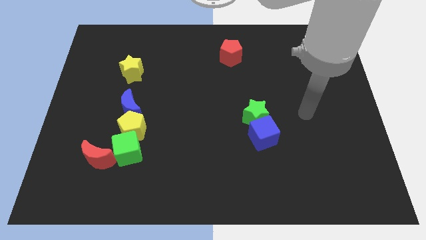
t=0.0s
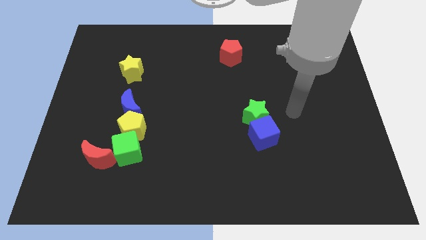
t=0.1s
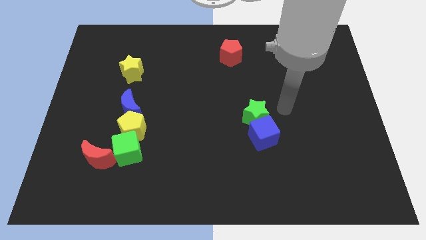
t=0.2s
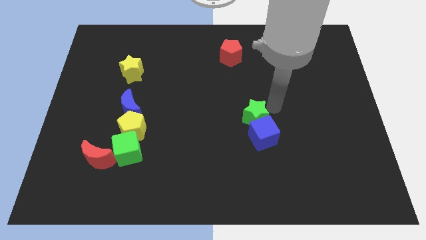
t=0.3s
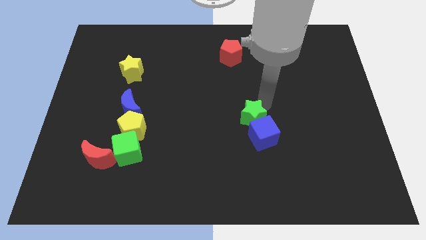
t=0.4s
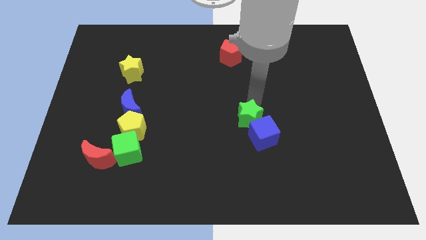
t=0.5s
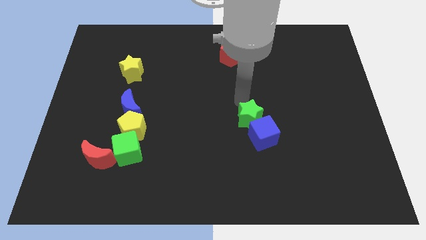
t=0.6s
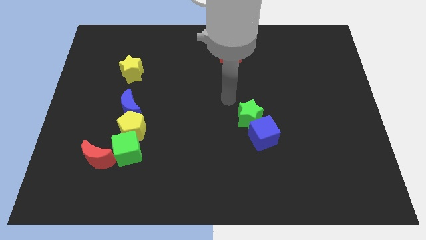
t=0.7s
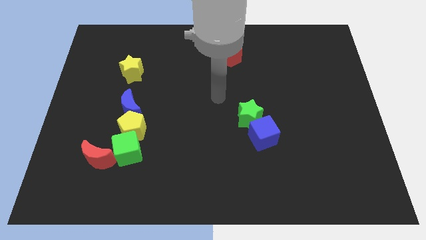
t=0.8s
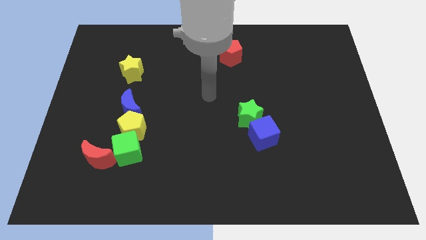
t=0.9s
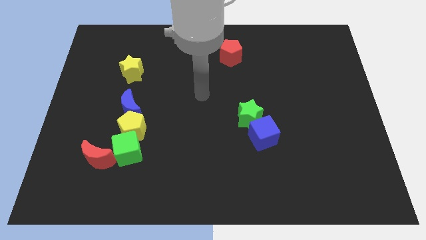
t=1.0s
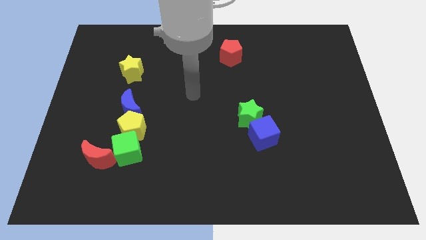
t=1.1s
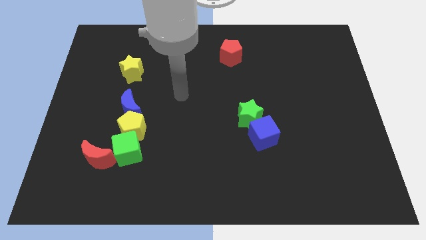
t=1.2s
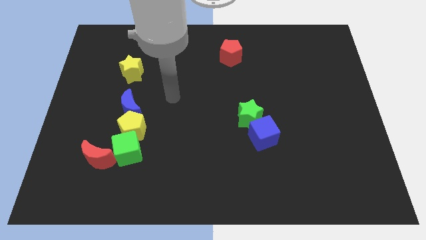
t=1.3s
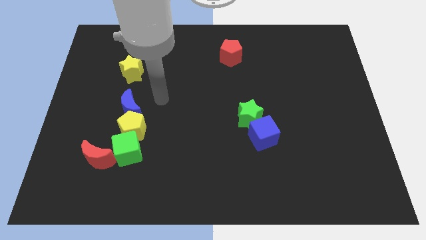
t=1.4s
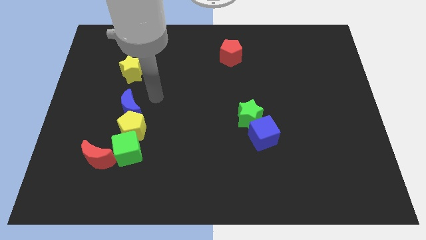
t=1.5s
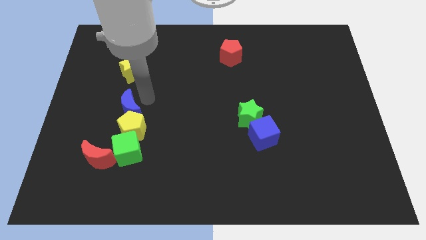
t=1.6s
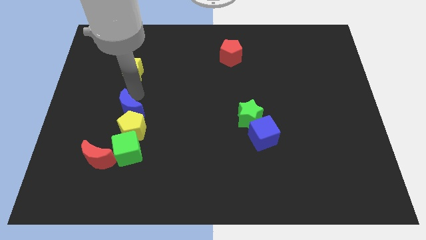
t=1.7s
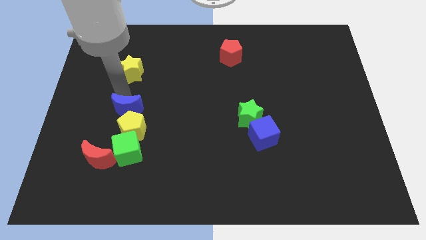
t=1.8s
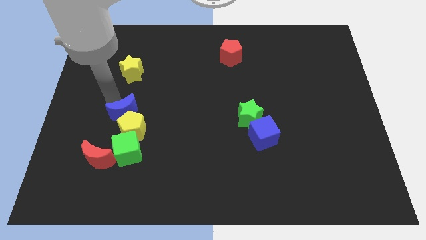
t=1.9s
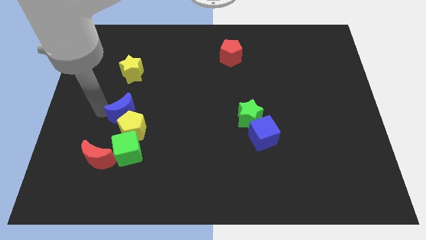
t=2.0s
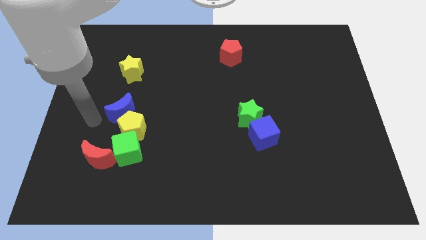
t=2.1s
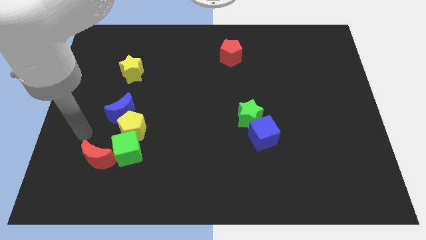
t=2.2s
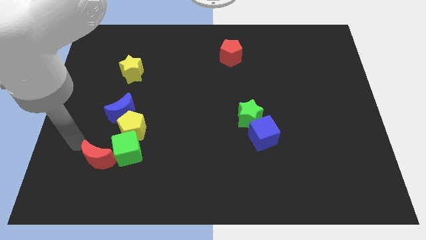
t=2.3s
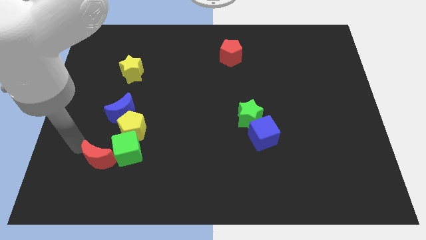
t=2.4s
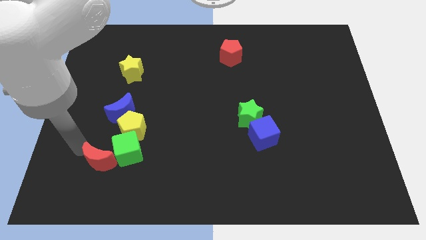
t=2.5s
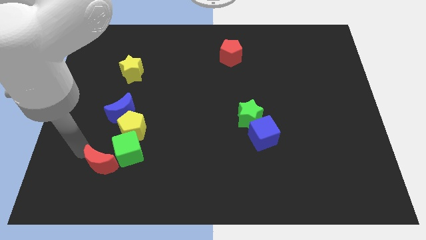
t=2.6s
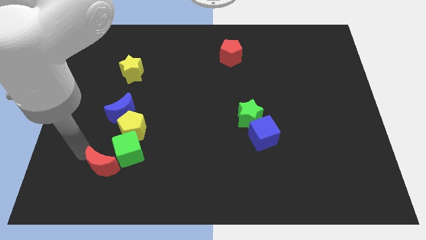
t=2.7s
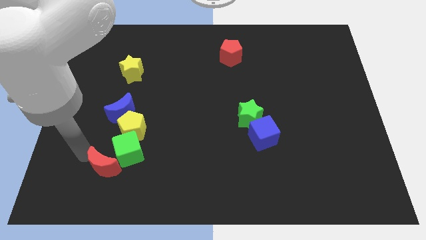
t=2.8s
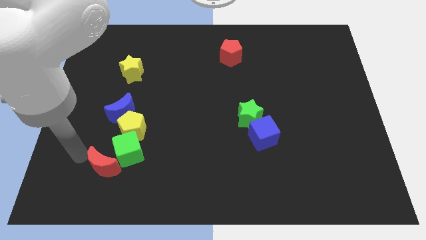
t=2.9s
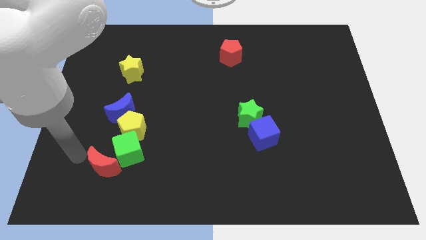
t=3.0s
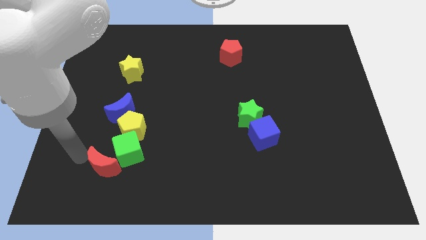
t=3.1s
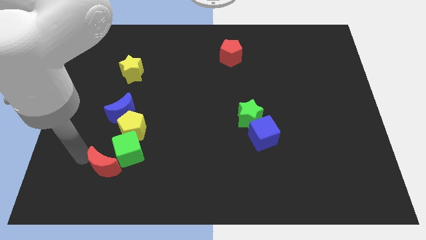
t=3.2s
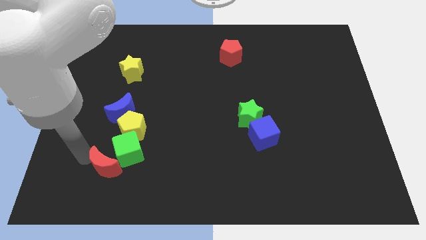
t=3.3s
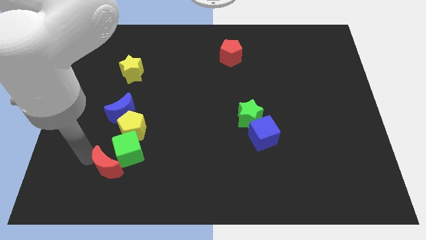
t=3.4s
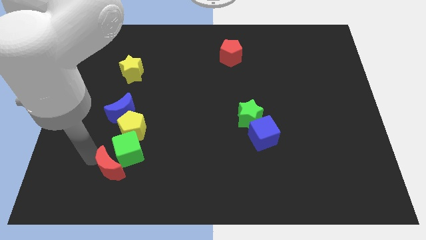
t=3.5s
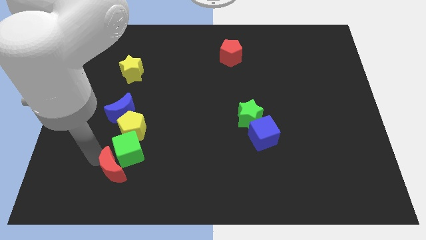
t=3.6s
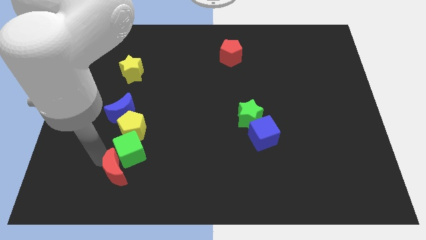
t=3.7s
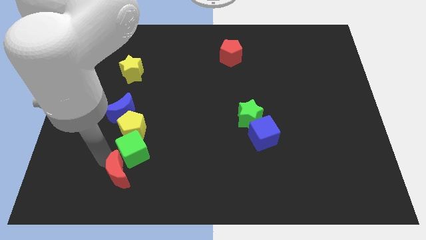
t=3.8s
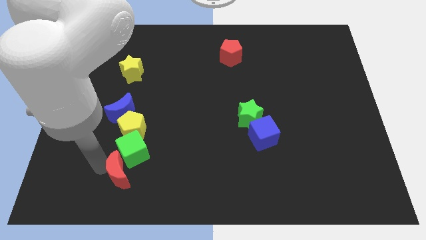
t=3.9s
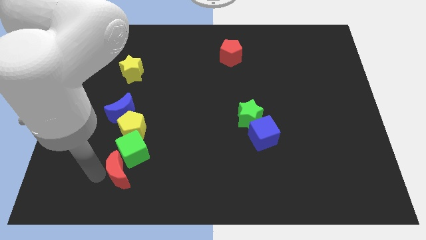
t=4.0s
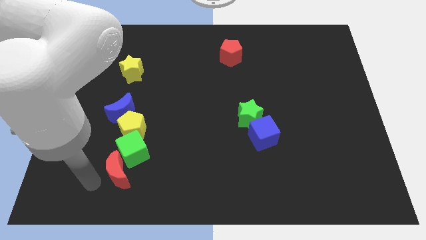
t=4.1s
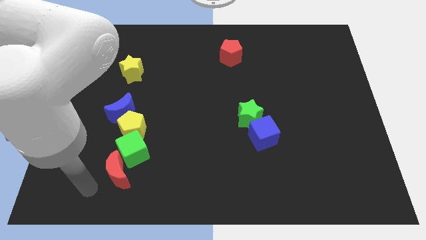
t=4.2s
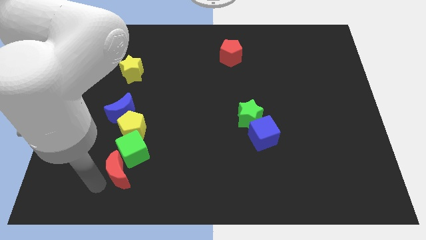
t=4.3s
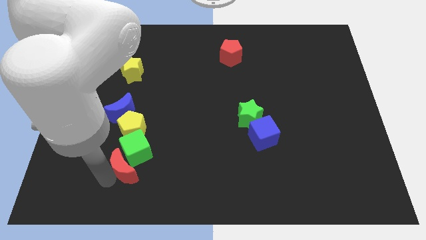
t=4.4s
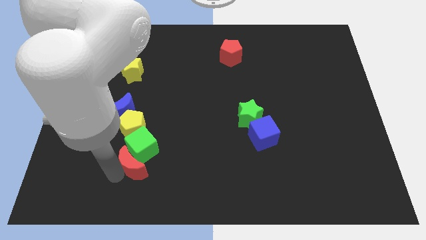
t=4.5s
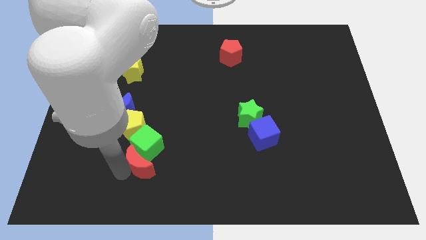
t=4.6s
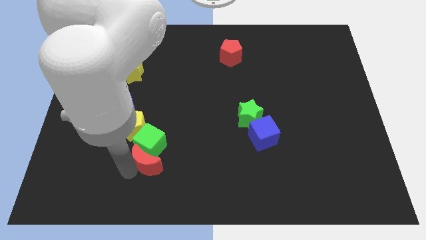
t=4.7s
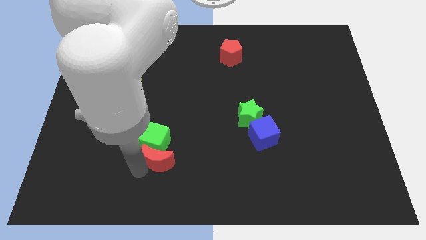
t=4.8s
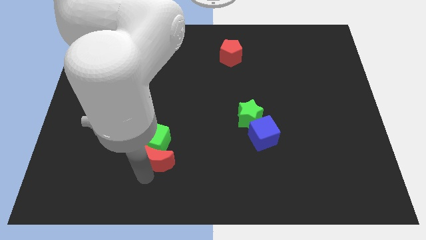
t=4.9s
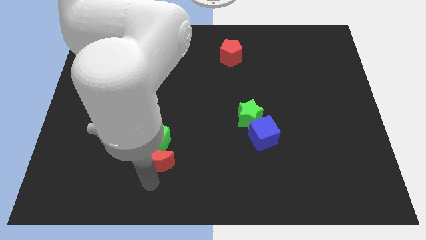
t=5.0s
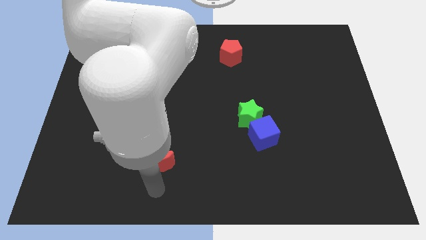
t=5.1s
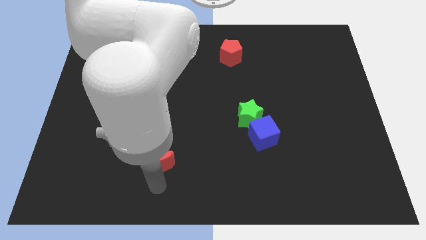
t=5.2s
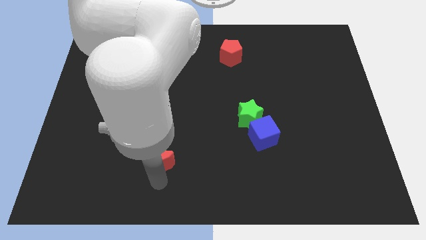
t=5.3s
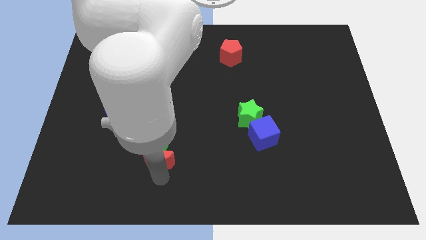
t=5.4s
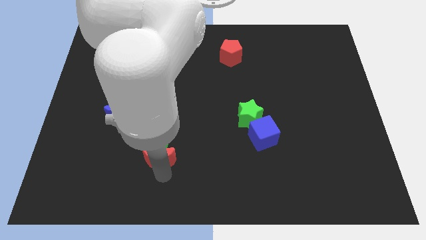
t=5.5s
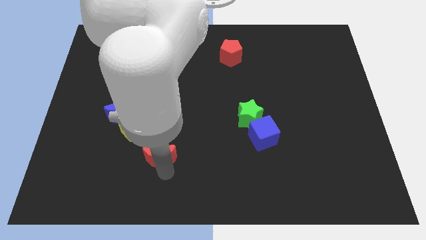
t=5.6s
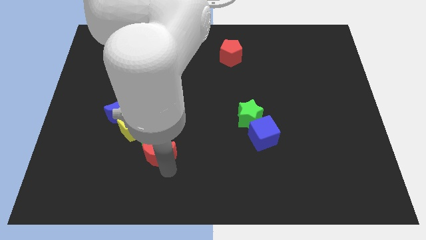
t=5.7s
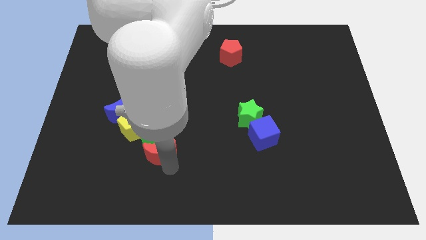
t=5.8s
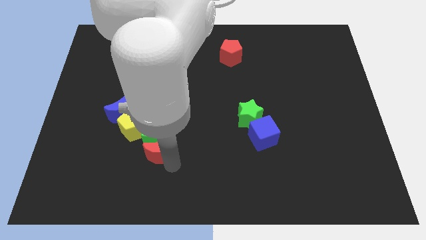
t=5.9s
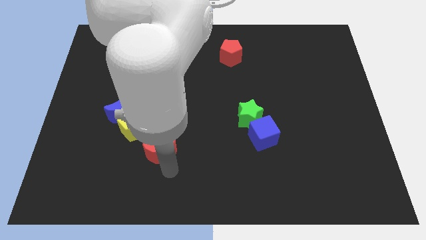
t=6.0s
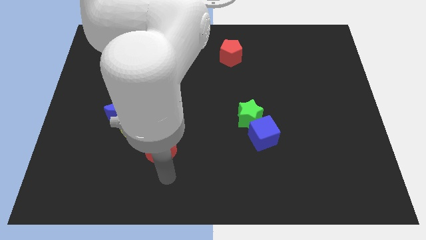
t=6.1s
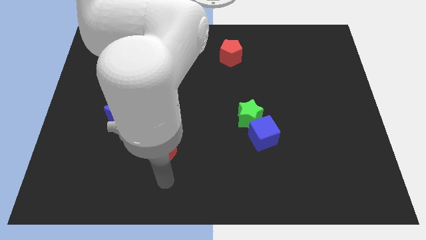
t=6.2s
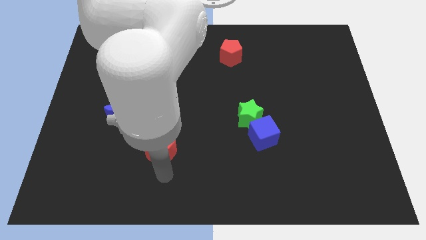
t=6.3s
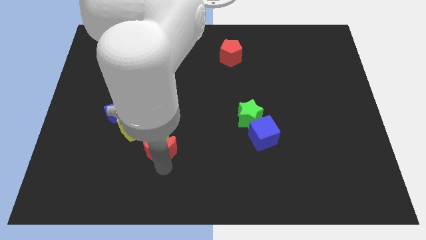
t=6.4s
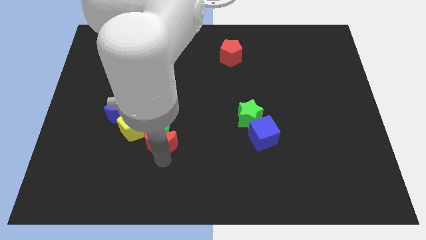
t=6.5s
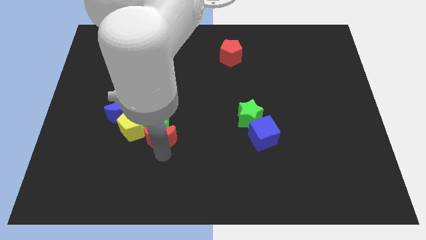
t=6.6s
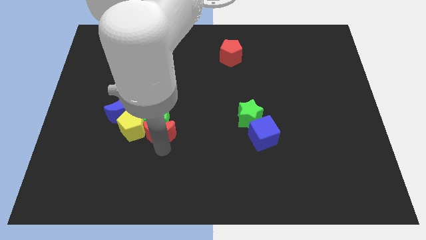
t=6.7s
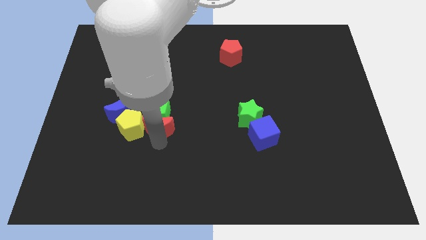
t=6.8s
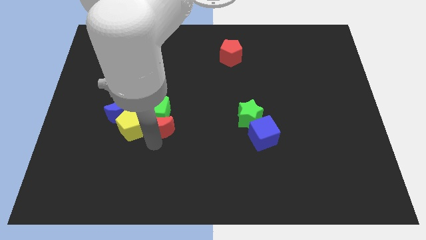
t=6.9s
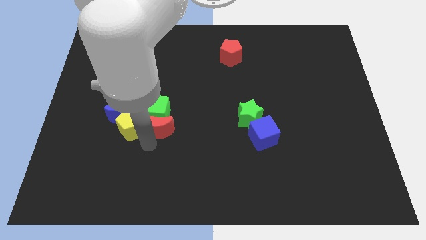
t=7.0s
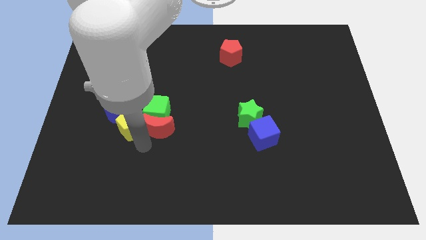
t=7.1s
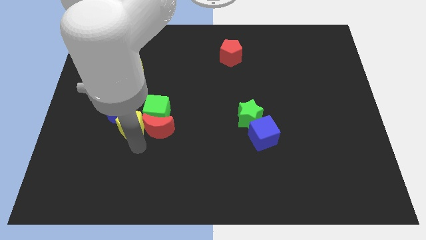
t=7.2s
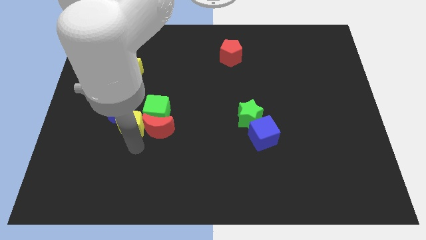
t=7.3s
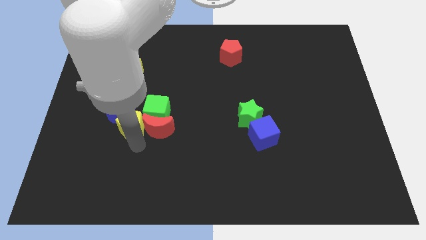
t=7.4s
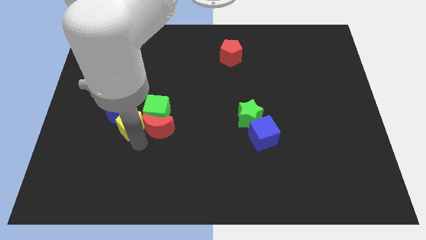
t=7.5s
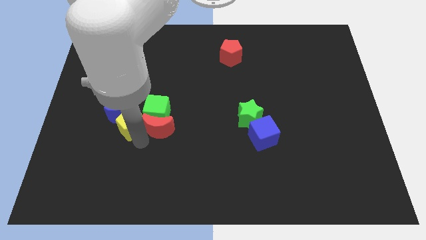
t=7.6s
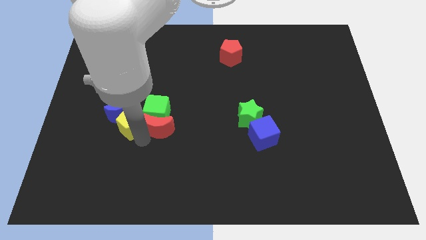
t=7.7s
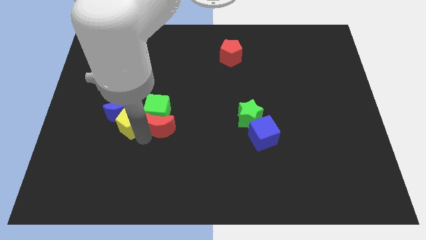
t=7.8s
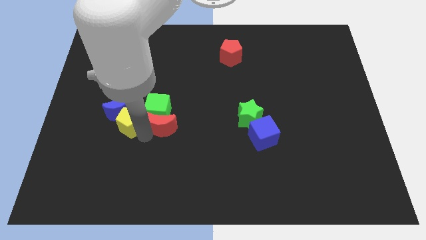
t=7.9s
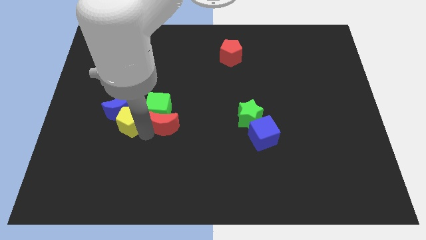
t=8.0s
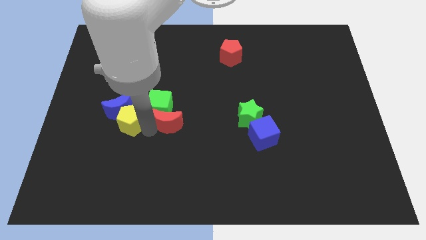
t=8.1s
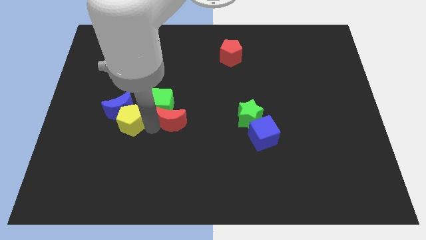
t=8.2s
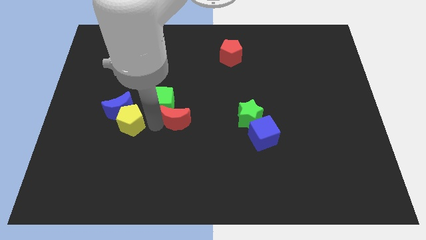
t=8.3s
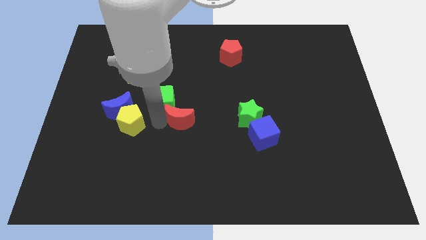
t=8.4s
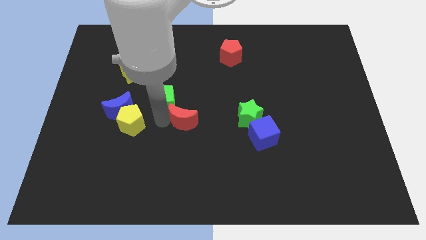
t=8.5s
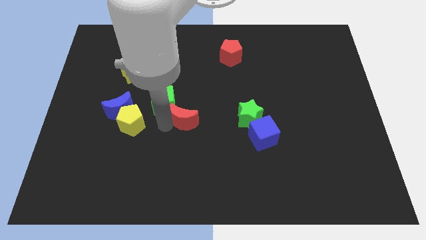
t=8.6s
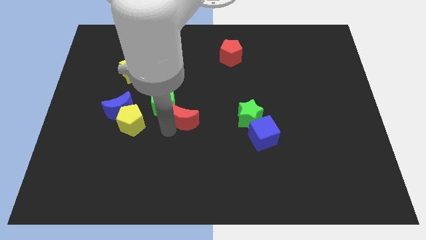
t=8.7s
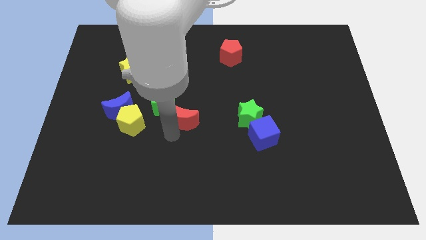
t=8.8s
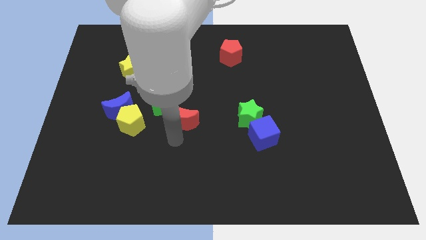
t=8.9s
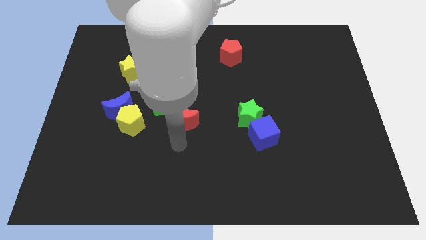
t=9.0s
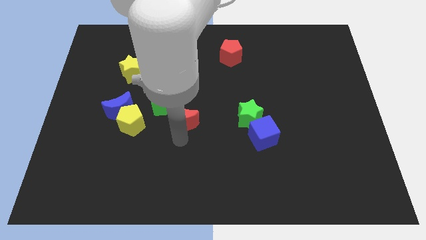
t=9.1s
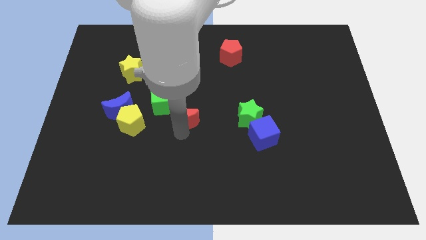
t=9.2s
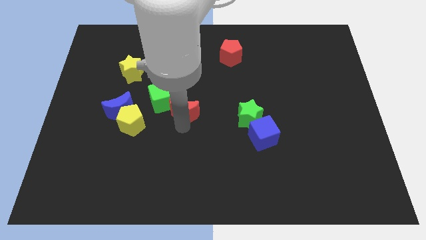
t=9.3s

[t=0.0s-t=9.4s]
push the red moon up and then to the right
